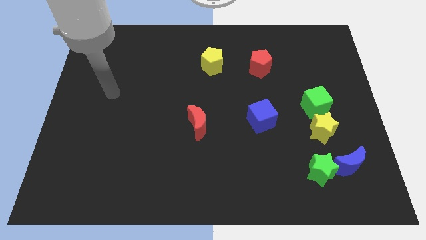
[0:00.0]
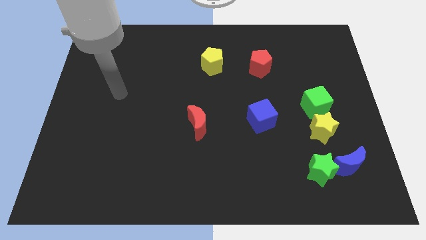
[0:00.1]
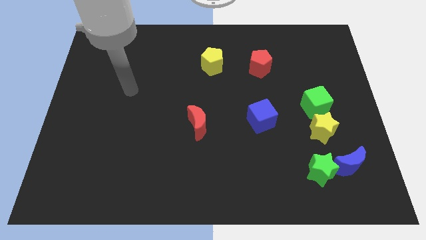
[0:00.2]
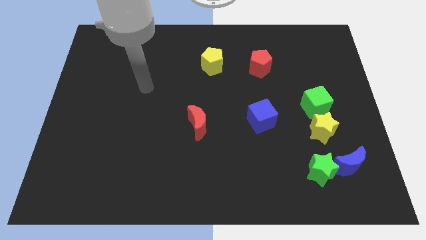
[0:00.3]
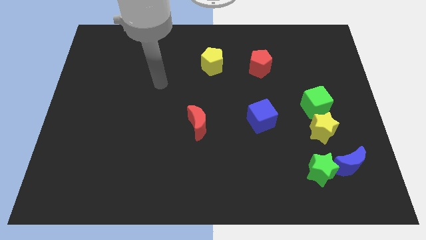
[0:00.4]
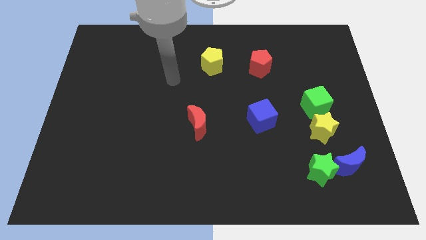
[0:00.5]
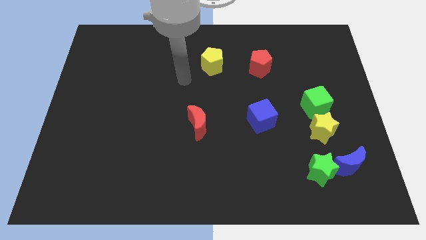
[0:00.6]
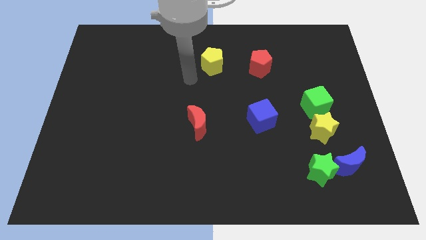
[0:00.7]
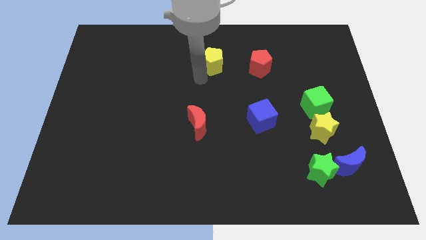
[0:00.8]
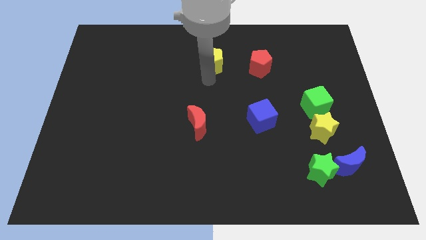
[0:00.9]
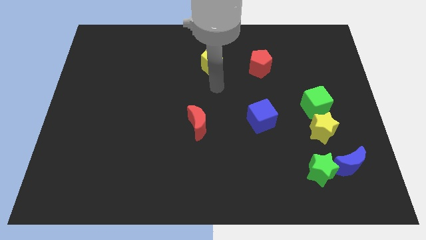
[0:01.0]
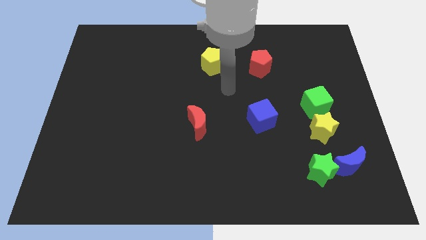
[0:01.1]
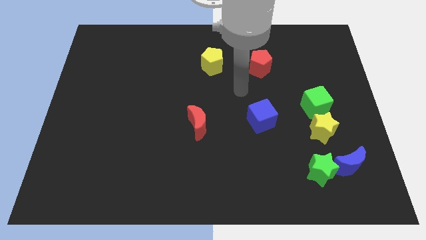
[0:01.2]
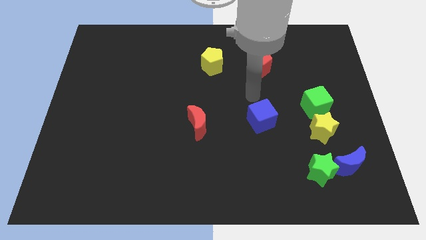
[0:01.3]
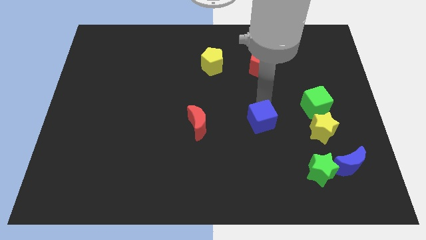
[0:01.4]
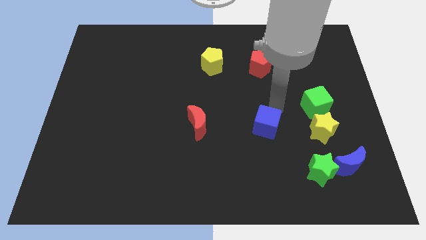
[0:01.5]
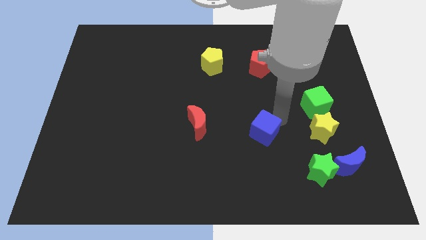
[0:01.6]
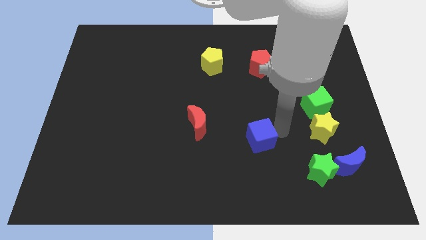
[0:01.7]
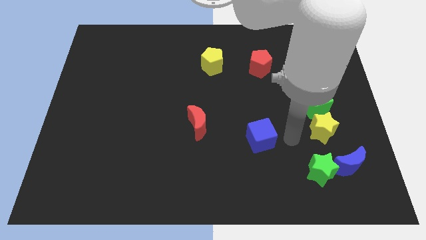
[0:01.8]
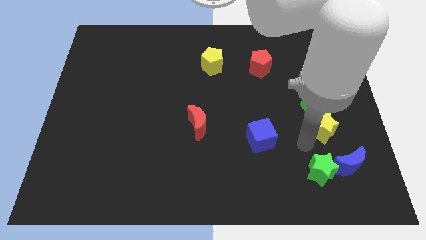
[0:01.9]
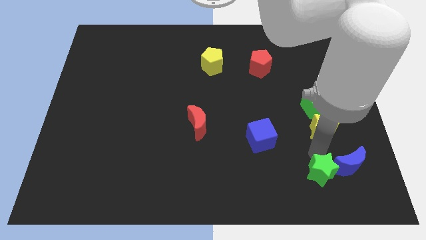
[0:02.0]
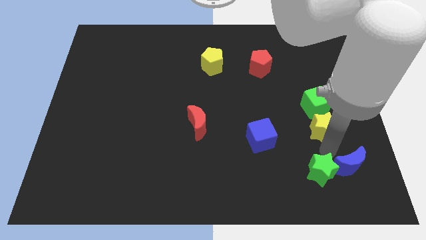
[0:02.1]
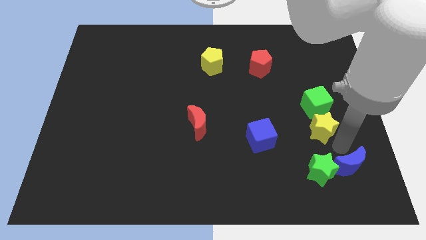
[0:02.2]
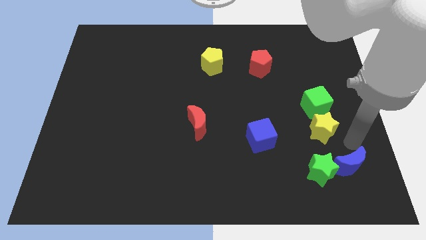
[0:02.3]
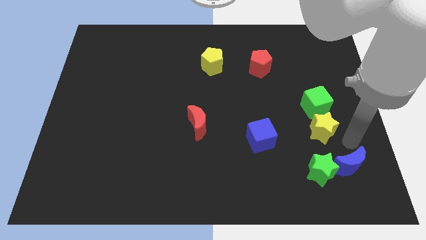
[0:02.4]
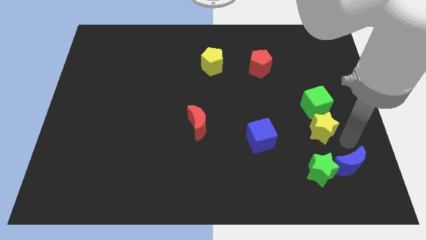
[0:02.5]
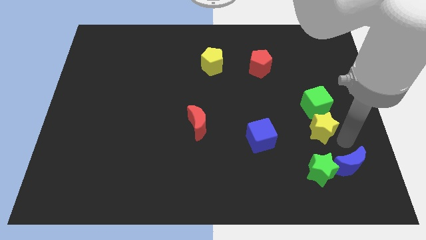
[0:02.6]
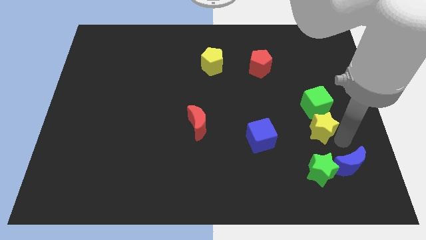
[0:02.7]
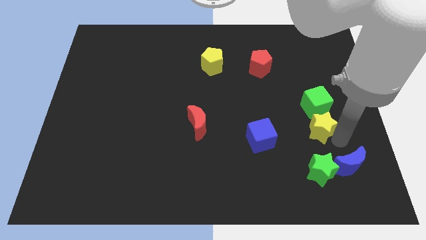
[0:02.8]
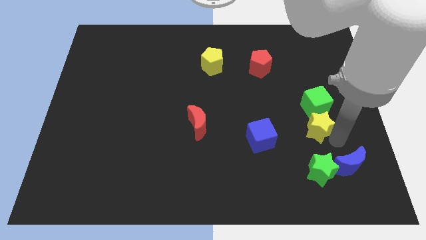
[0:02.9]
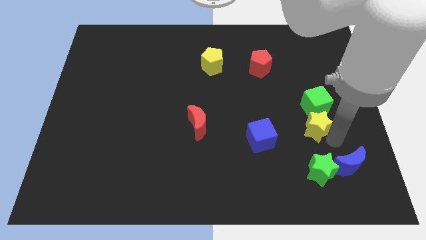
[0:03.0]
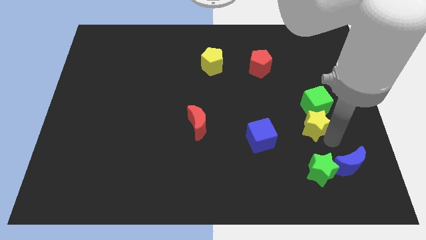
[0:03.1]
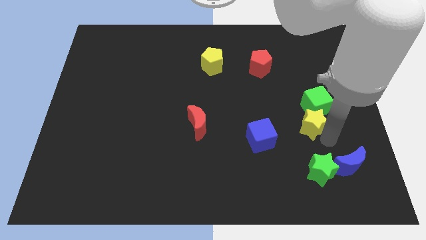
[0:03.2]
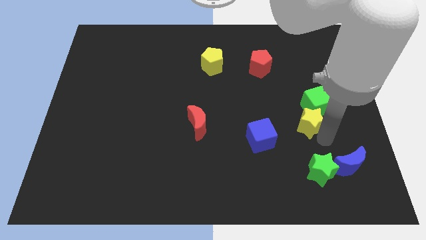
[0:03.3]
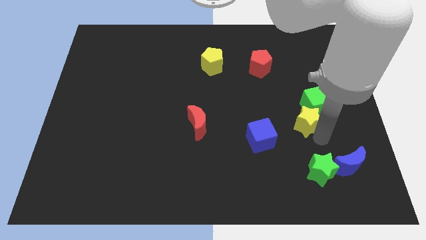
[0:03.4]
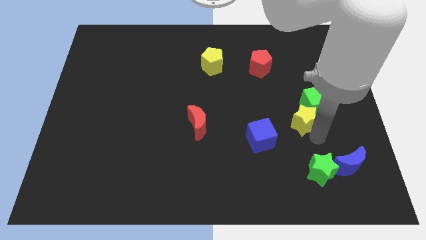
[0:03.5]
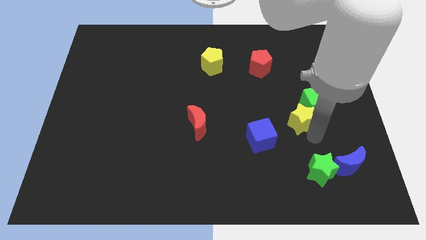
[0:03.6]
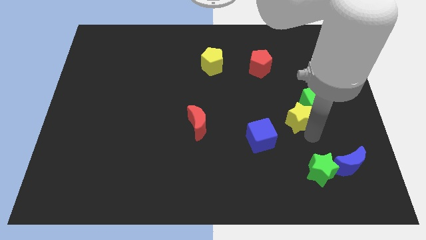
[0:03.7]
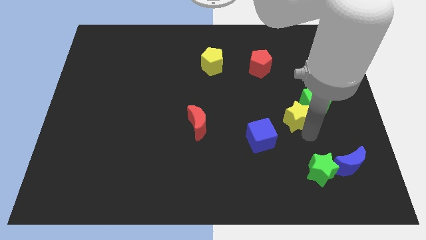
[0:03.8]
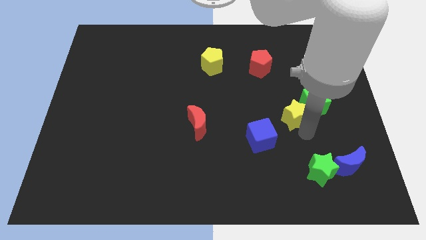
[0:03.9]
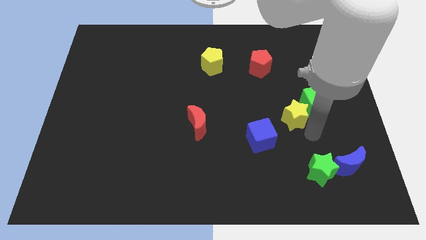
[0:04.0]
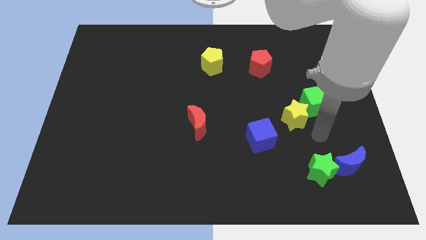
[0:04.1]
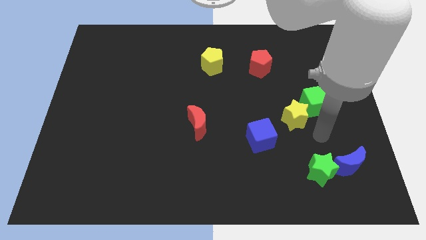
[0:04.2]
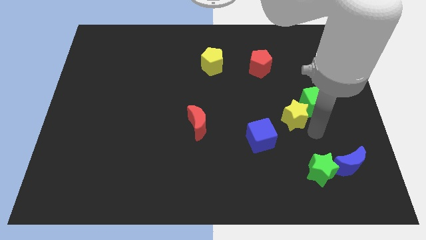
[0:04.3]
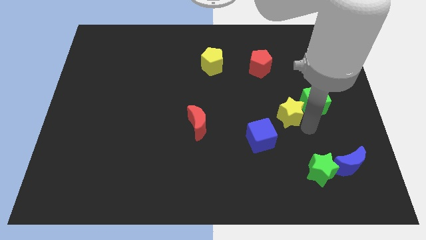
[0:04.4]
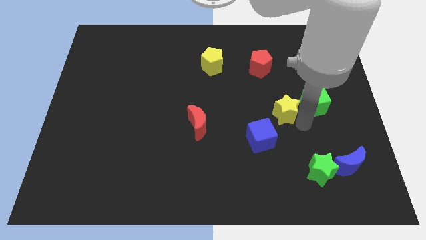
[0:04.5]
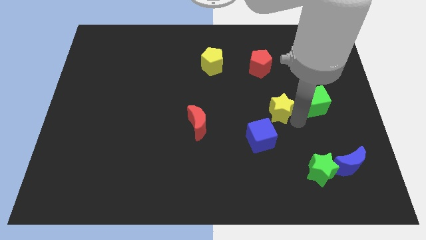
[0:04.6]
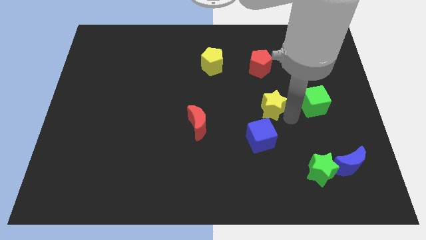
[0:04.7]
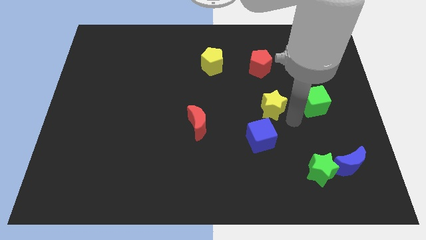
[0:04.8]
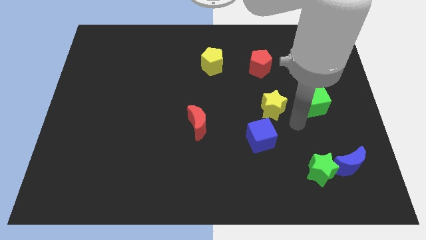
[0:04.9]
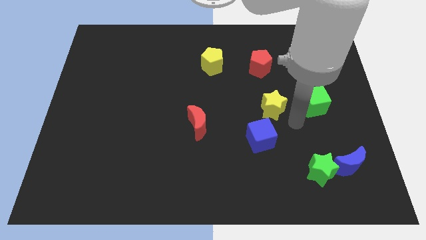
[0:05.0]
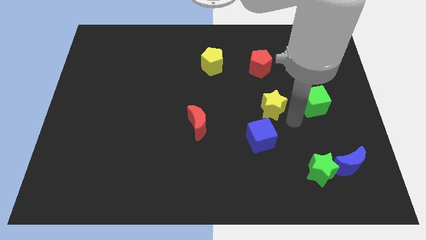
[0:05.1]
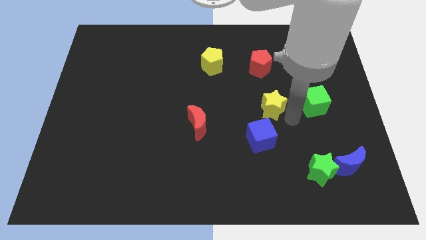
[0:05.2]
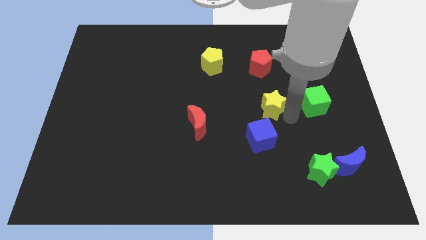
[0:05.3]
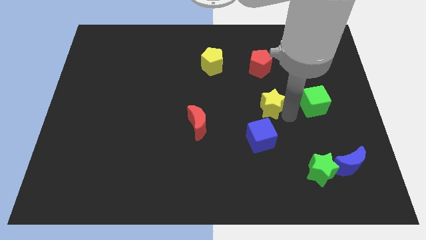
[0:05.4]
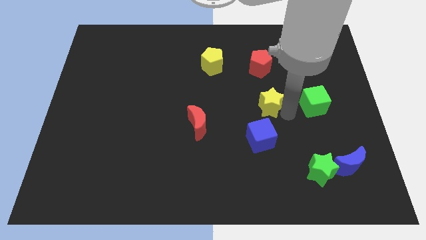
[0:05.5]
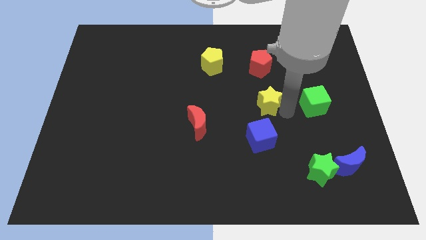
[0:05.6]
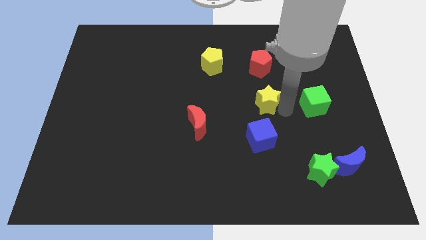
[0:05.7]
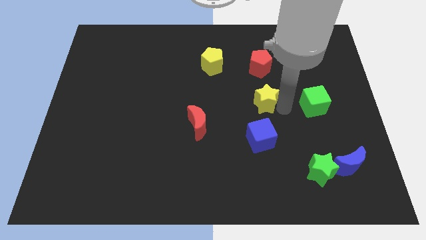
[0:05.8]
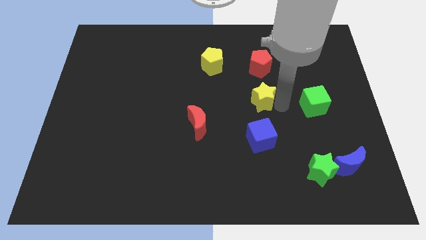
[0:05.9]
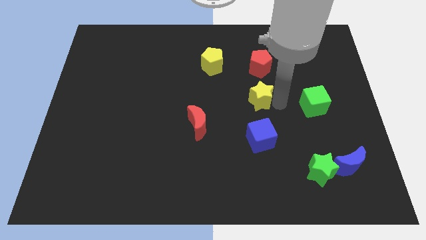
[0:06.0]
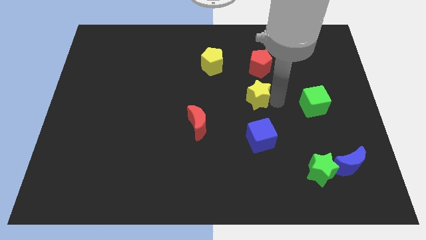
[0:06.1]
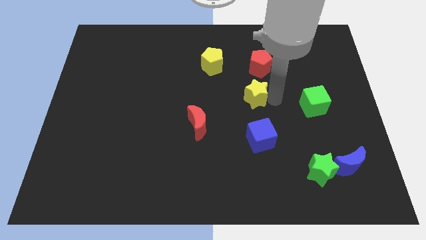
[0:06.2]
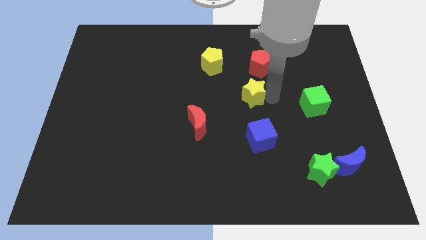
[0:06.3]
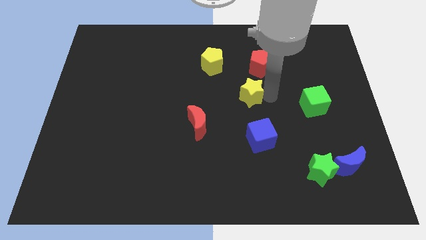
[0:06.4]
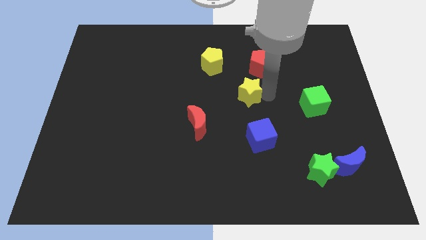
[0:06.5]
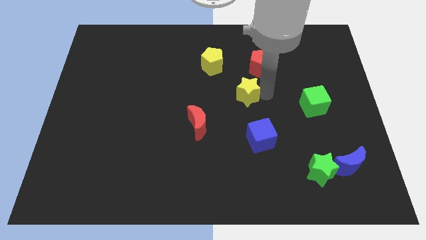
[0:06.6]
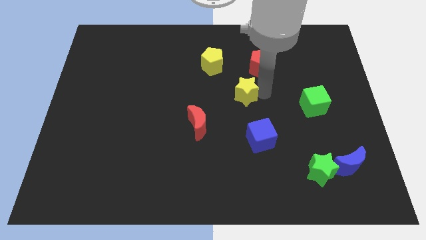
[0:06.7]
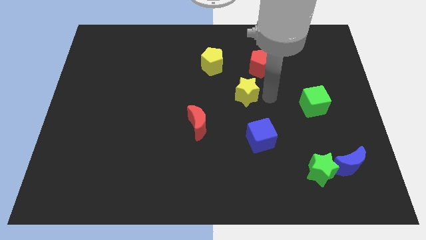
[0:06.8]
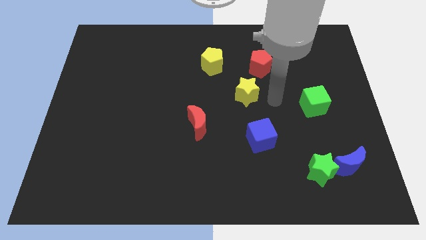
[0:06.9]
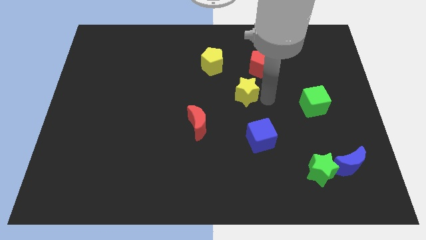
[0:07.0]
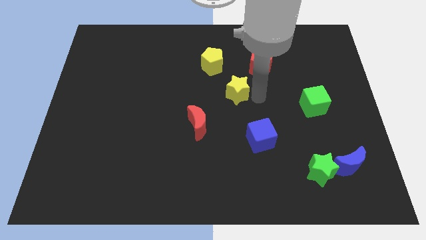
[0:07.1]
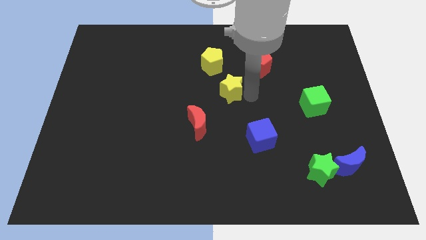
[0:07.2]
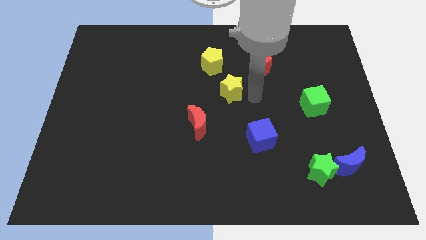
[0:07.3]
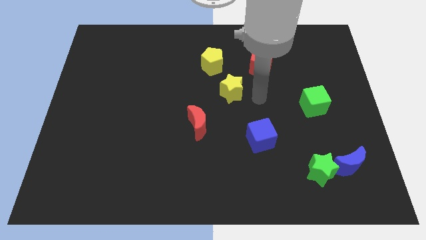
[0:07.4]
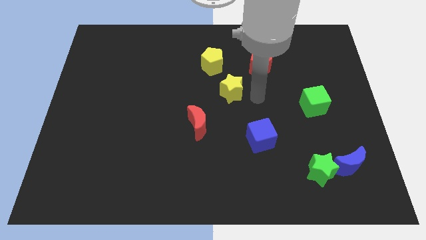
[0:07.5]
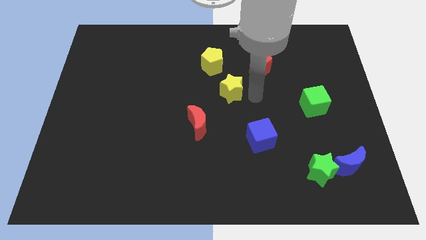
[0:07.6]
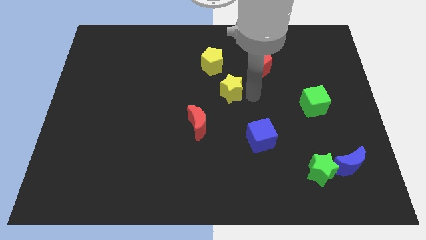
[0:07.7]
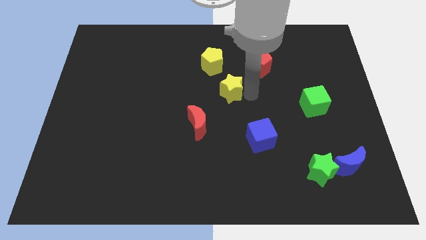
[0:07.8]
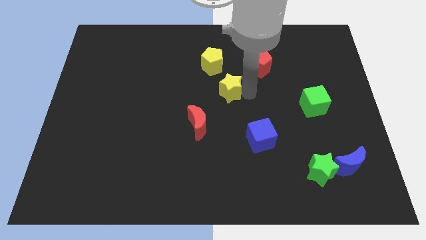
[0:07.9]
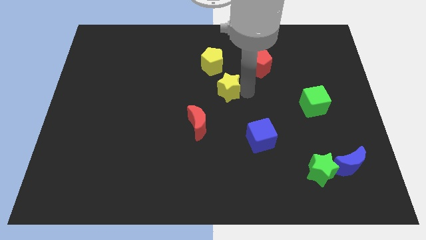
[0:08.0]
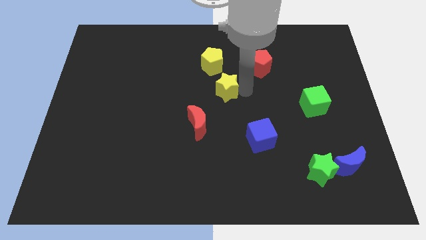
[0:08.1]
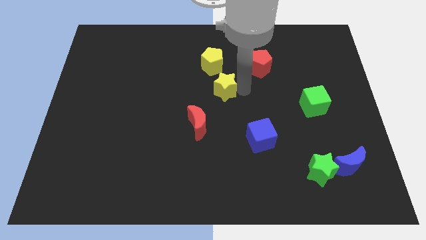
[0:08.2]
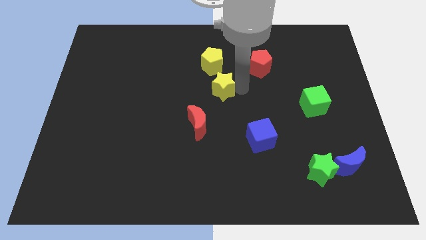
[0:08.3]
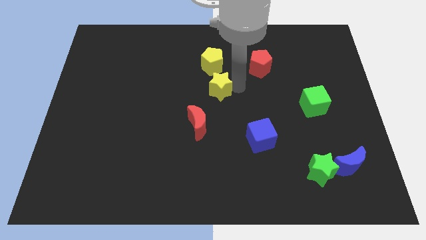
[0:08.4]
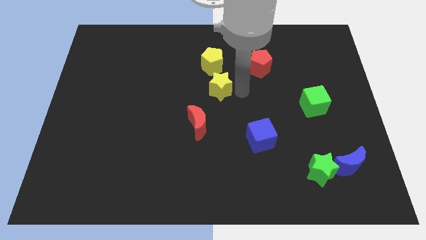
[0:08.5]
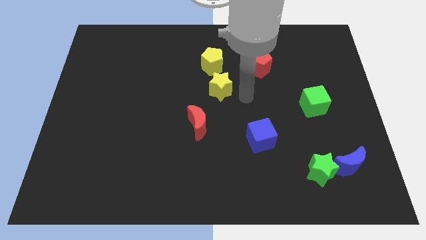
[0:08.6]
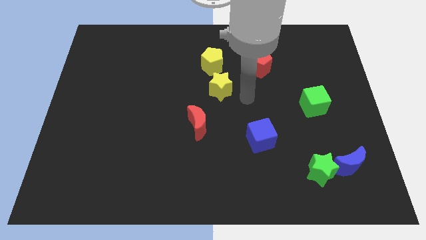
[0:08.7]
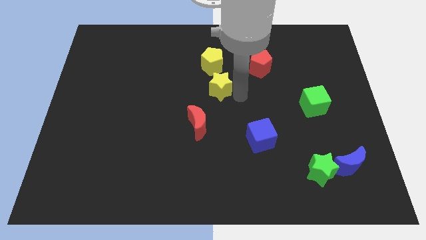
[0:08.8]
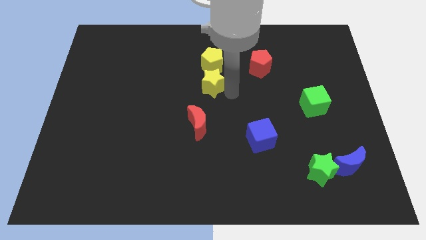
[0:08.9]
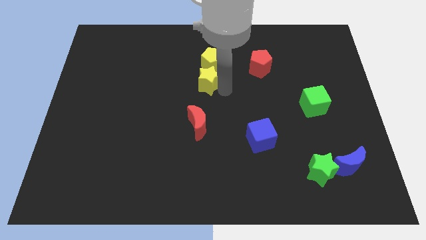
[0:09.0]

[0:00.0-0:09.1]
push the yellow star to the bottom left of the yellow pentagon
